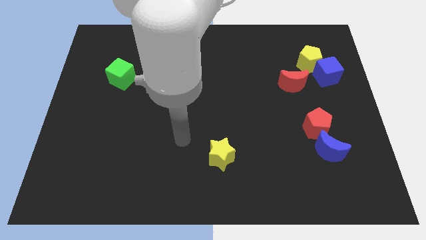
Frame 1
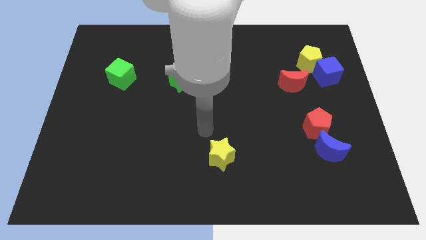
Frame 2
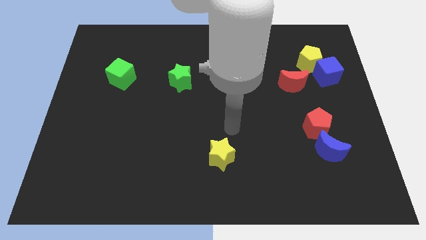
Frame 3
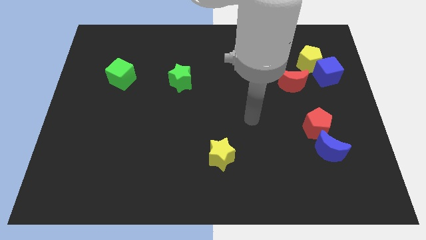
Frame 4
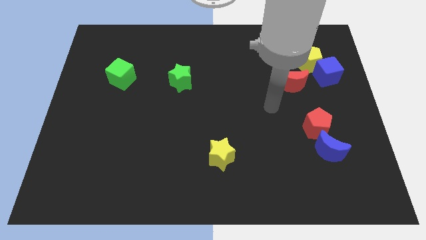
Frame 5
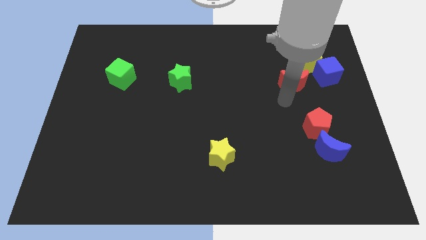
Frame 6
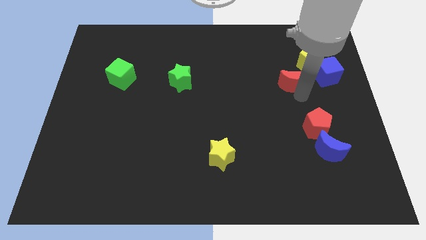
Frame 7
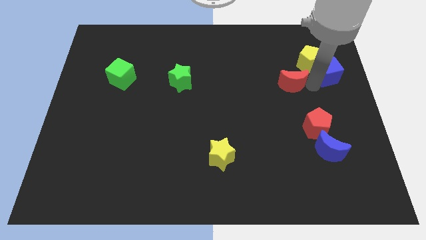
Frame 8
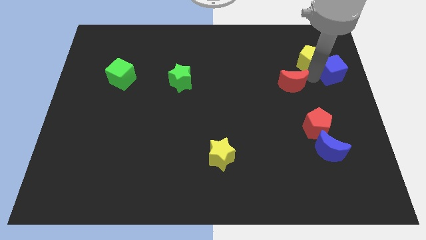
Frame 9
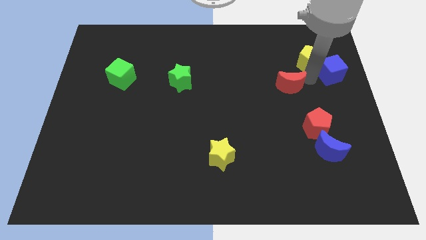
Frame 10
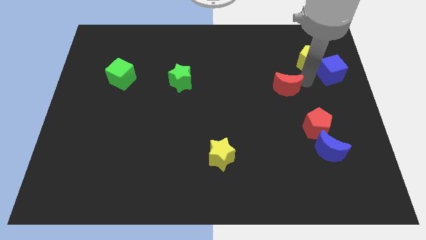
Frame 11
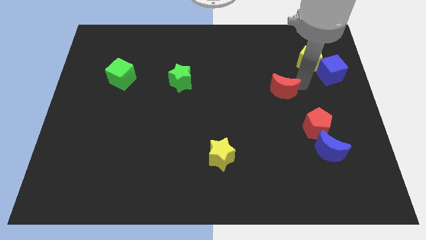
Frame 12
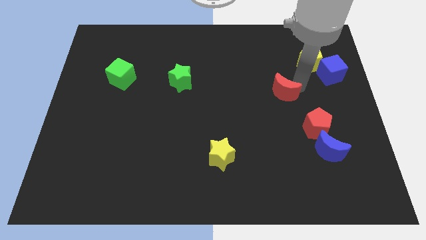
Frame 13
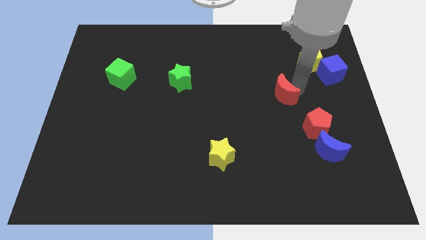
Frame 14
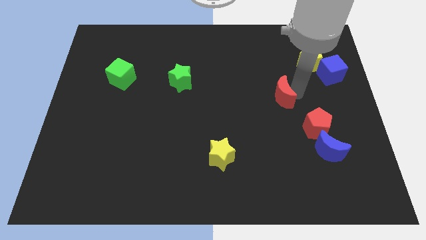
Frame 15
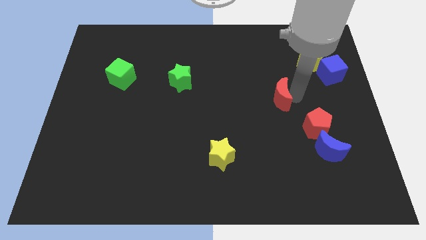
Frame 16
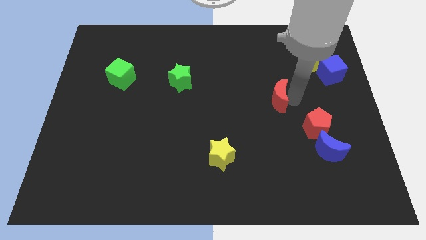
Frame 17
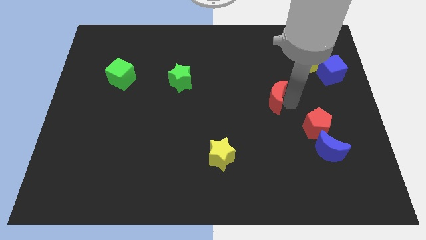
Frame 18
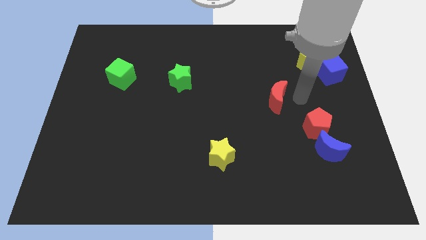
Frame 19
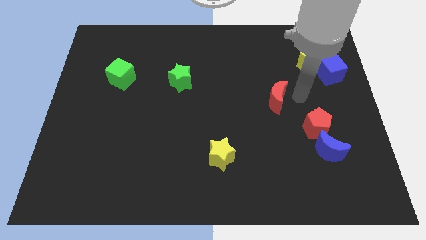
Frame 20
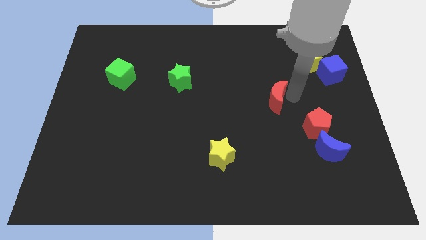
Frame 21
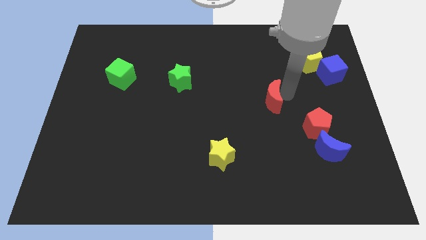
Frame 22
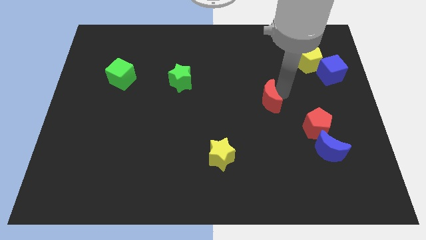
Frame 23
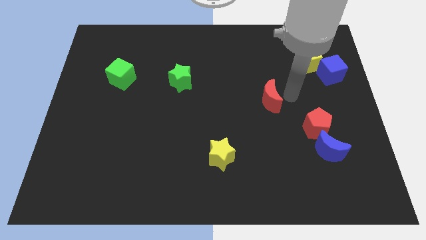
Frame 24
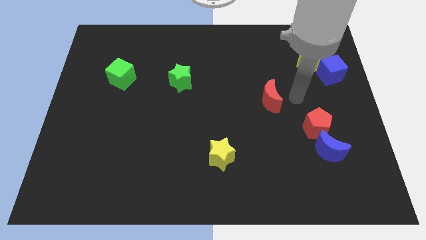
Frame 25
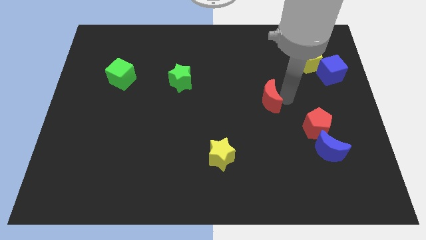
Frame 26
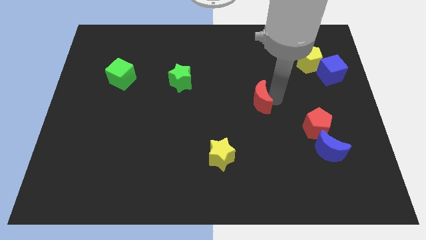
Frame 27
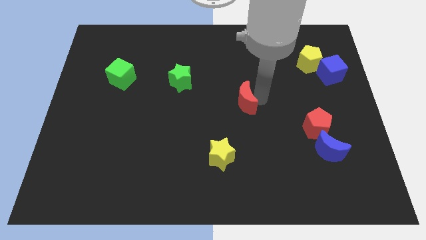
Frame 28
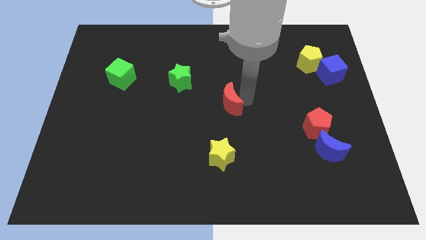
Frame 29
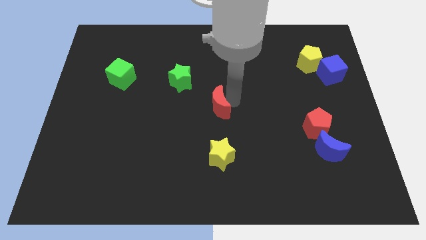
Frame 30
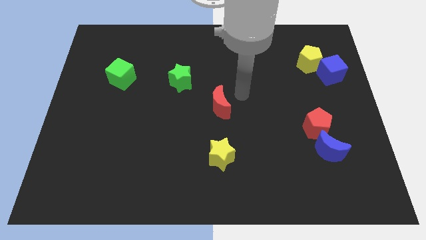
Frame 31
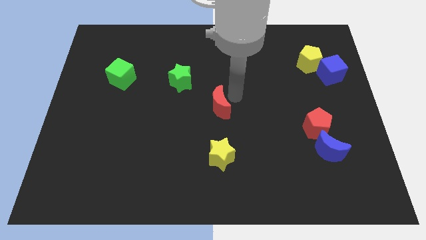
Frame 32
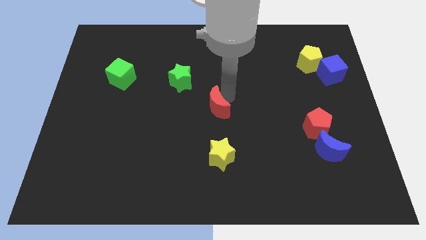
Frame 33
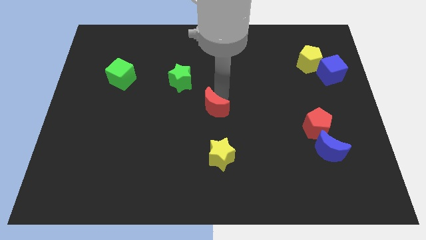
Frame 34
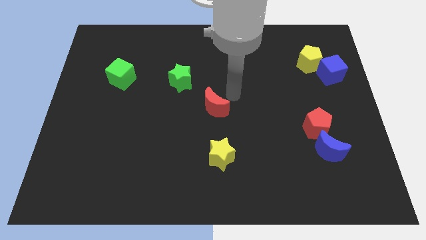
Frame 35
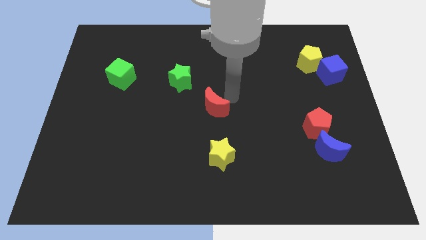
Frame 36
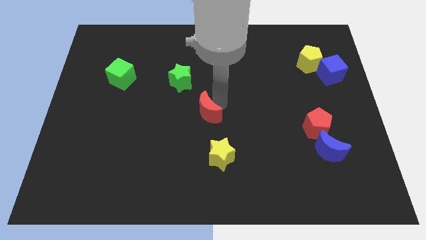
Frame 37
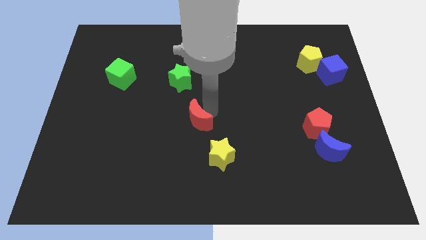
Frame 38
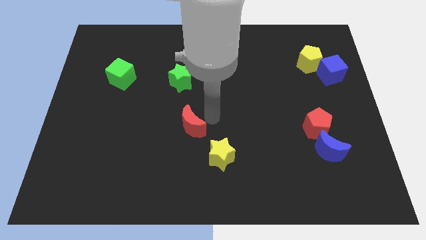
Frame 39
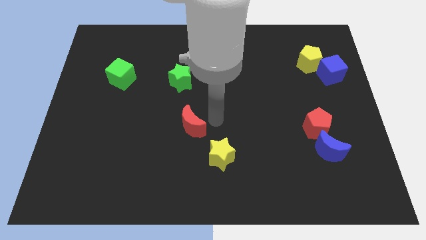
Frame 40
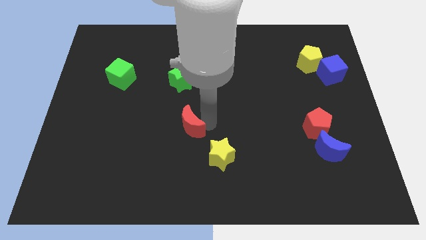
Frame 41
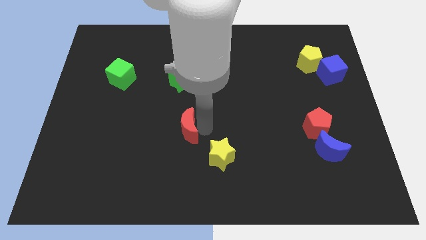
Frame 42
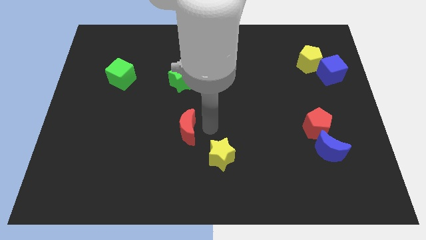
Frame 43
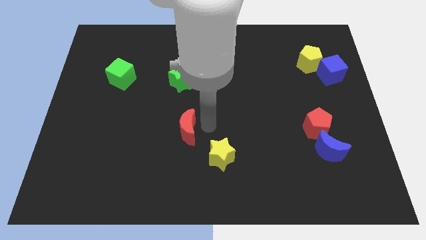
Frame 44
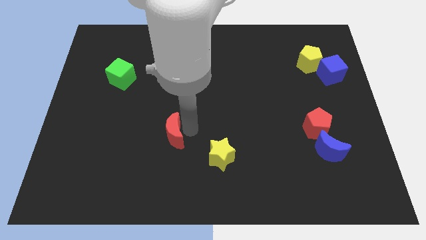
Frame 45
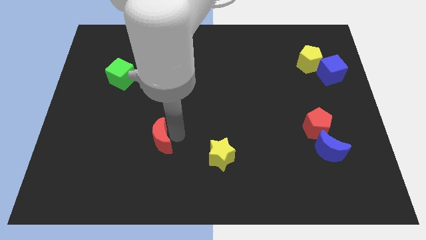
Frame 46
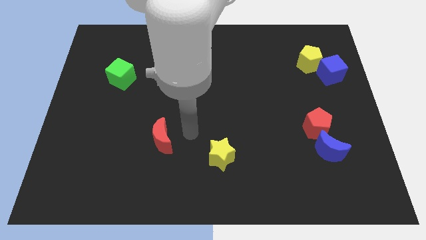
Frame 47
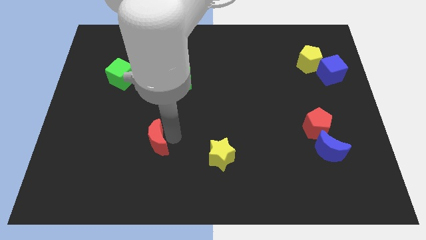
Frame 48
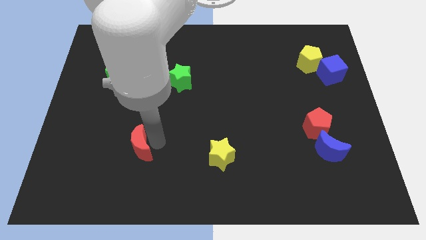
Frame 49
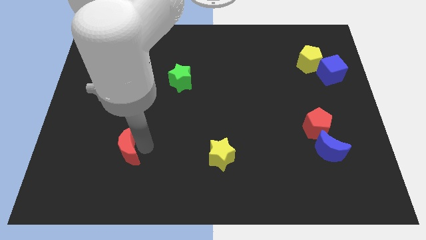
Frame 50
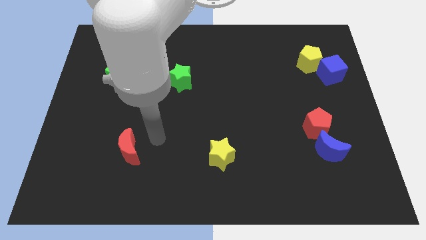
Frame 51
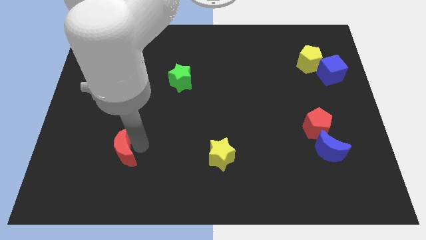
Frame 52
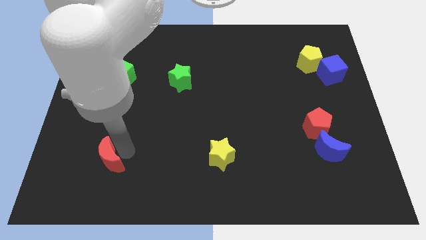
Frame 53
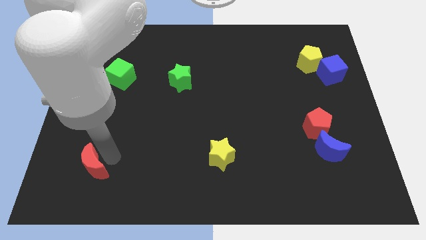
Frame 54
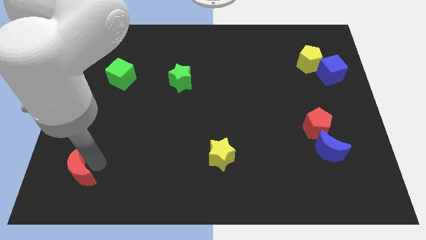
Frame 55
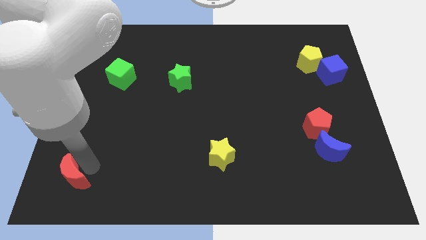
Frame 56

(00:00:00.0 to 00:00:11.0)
put the red moon to the lower left corner
